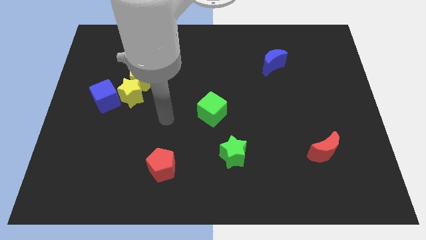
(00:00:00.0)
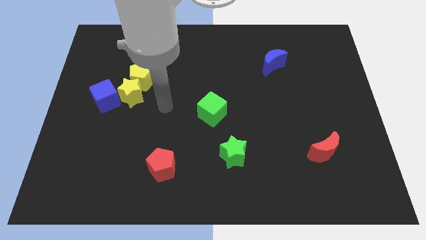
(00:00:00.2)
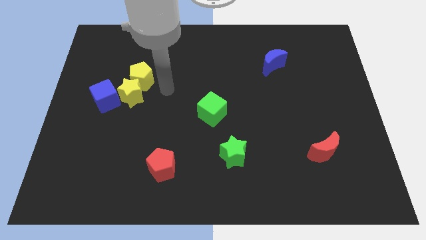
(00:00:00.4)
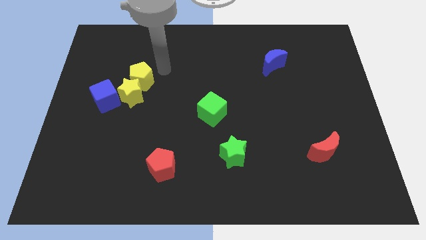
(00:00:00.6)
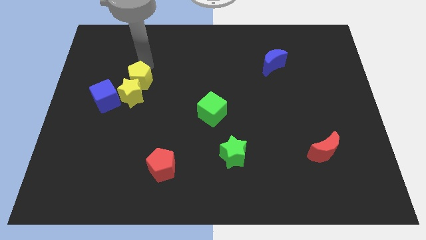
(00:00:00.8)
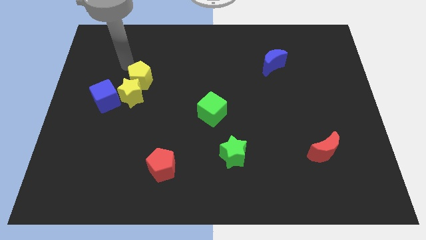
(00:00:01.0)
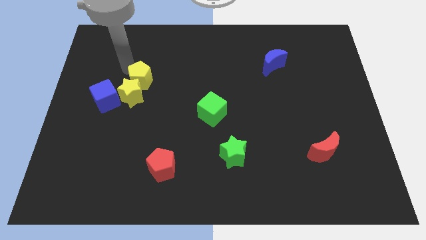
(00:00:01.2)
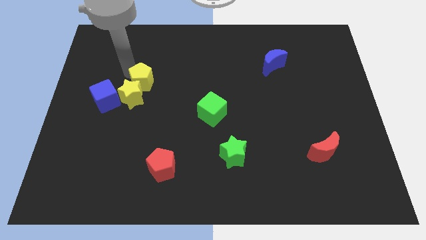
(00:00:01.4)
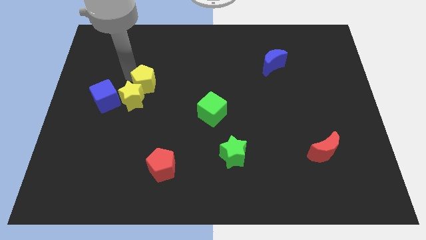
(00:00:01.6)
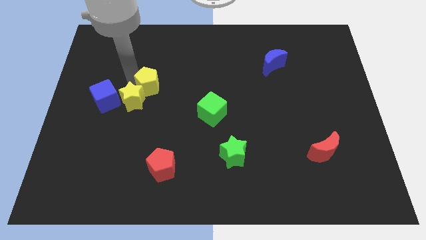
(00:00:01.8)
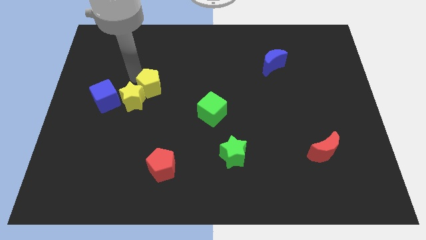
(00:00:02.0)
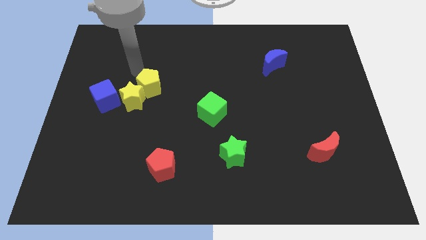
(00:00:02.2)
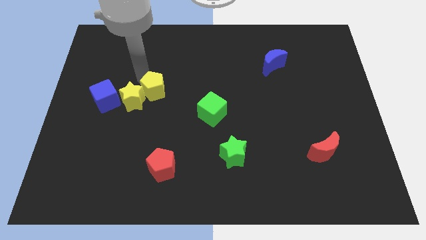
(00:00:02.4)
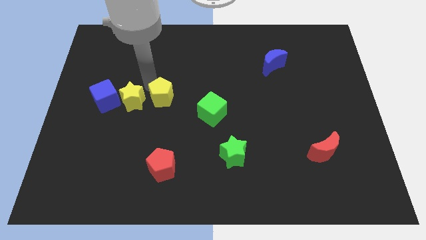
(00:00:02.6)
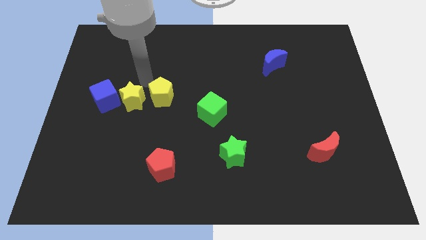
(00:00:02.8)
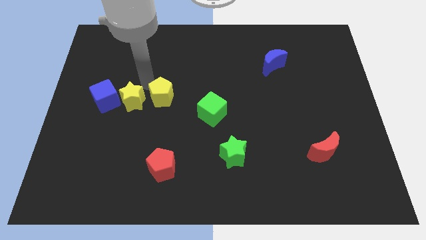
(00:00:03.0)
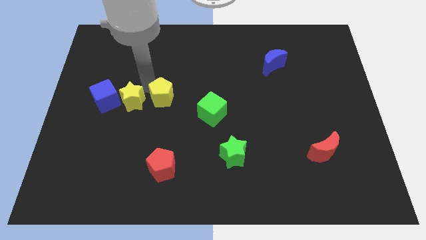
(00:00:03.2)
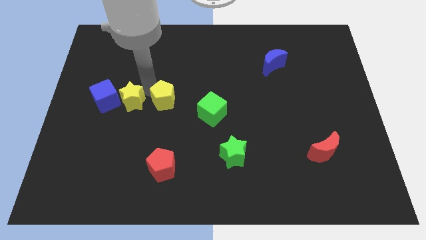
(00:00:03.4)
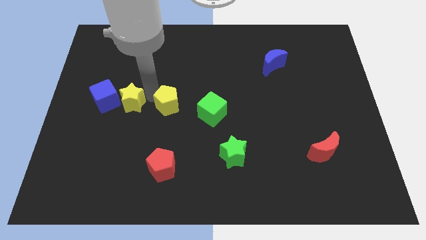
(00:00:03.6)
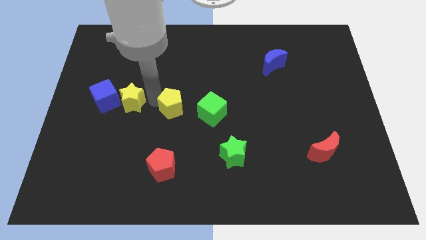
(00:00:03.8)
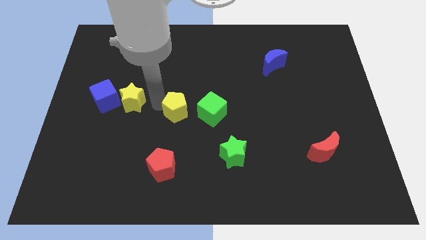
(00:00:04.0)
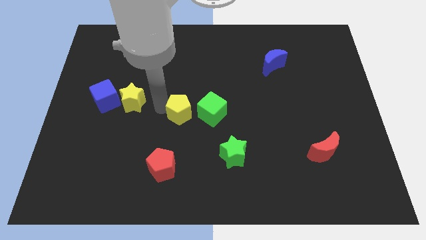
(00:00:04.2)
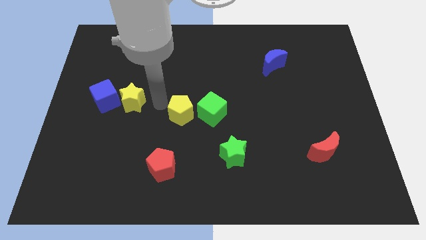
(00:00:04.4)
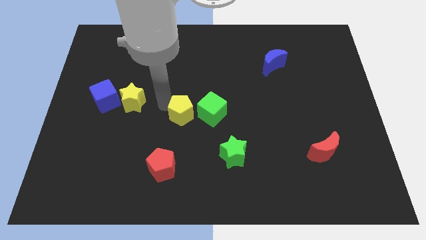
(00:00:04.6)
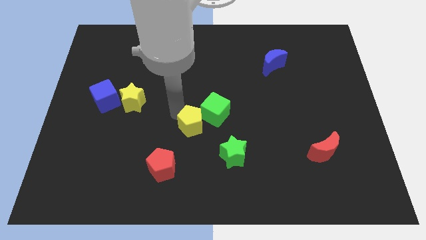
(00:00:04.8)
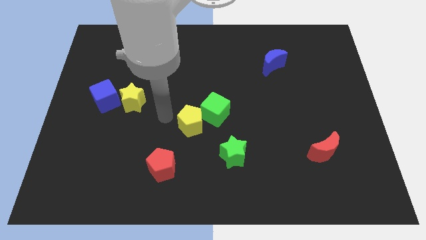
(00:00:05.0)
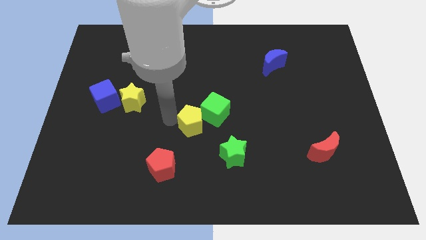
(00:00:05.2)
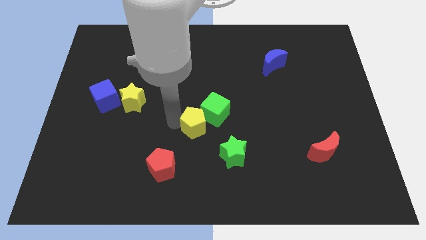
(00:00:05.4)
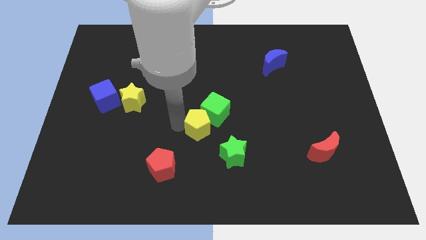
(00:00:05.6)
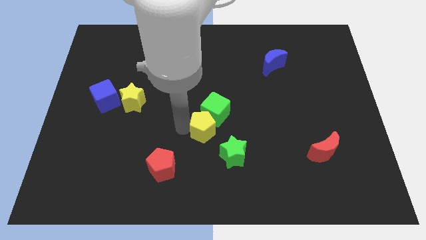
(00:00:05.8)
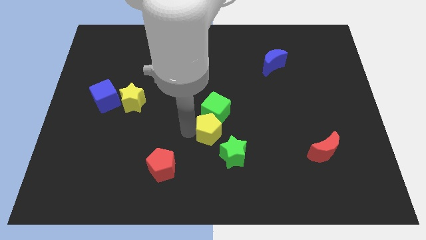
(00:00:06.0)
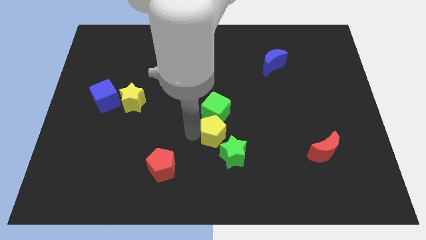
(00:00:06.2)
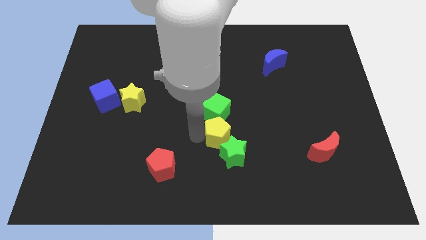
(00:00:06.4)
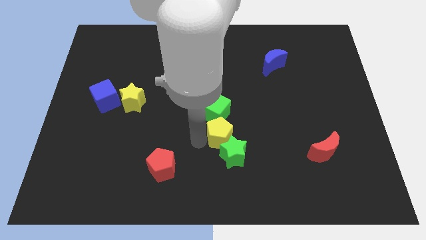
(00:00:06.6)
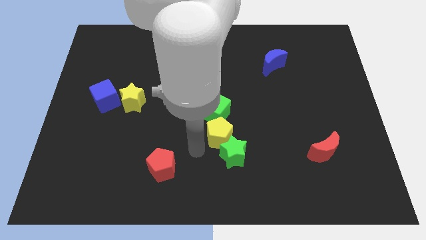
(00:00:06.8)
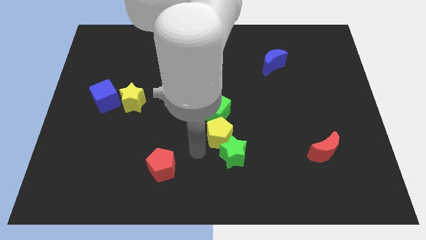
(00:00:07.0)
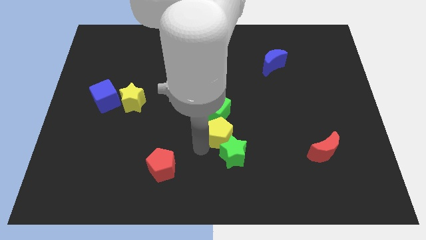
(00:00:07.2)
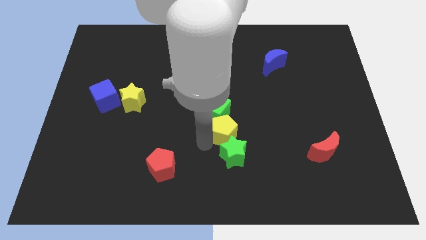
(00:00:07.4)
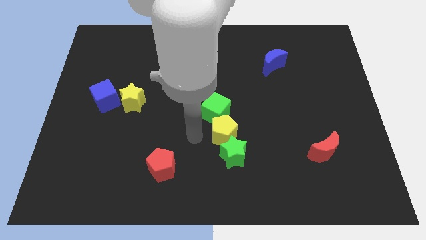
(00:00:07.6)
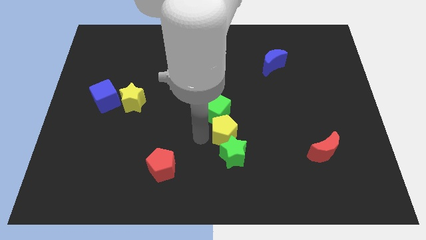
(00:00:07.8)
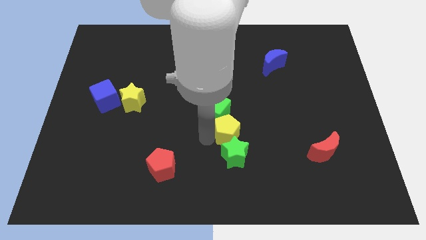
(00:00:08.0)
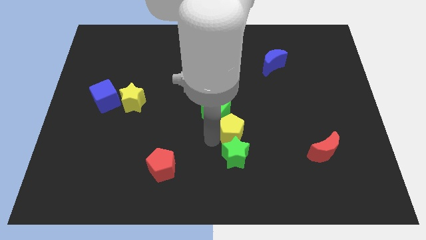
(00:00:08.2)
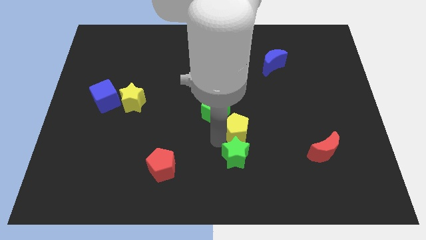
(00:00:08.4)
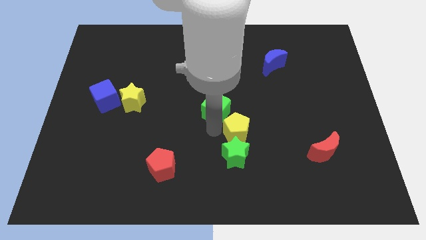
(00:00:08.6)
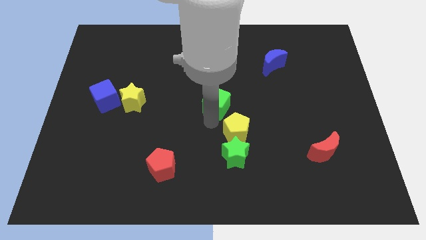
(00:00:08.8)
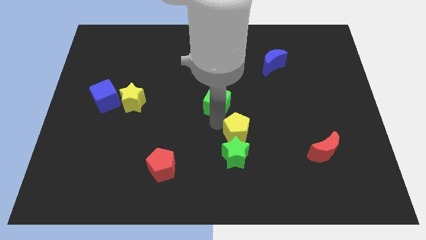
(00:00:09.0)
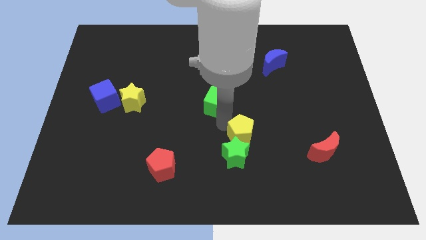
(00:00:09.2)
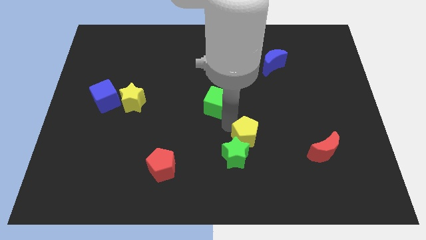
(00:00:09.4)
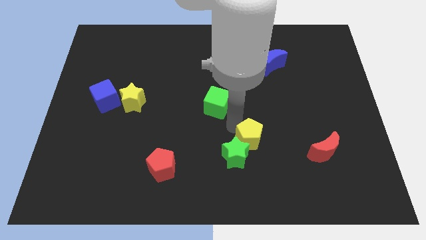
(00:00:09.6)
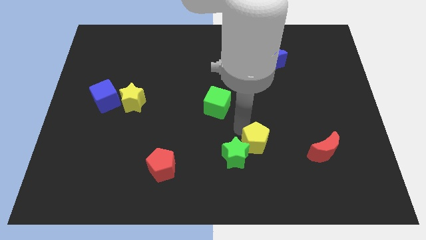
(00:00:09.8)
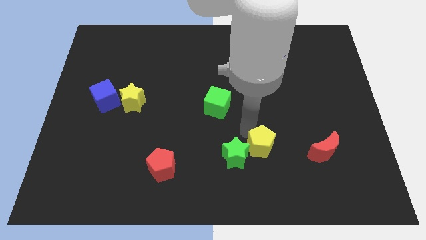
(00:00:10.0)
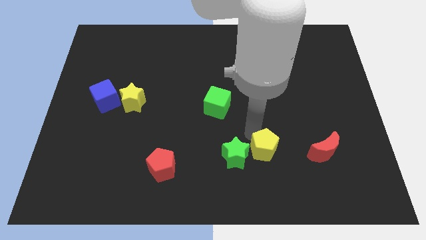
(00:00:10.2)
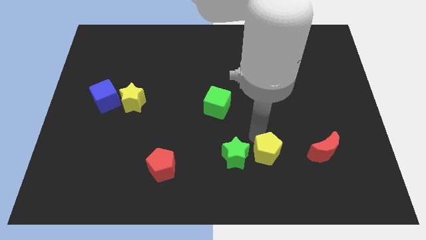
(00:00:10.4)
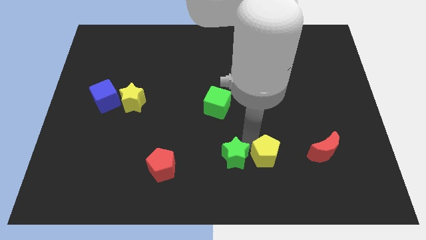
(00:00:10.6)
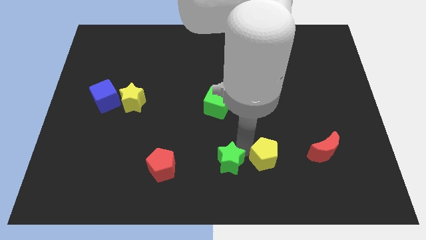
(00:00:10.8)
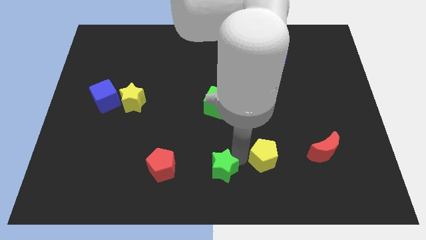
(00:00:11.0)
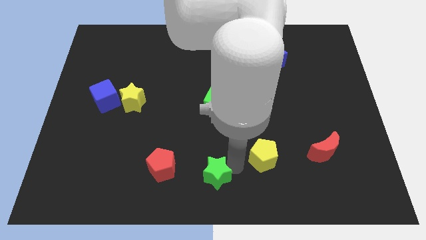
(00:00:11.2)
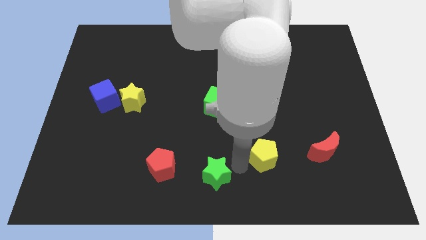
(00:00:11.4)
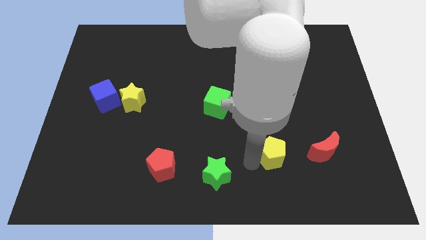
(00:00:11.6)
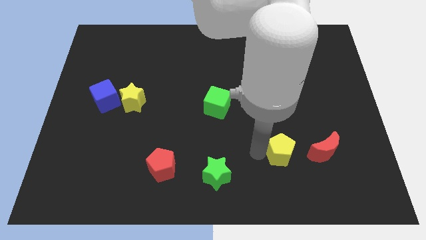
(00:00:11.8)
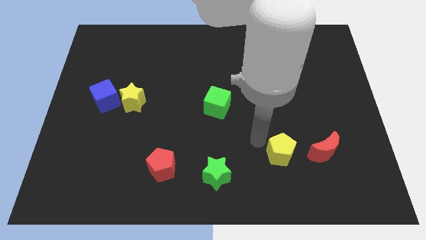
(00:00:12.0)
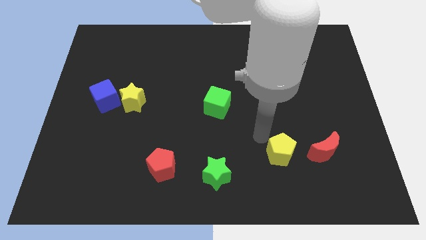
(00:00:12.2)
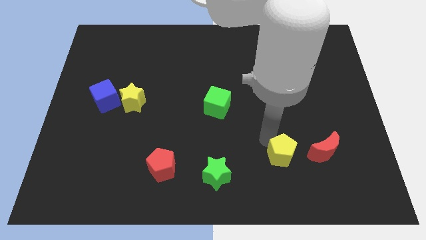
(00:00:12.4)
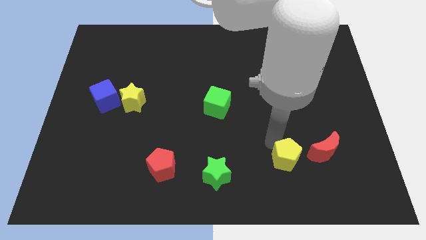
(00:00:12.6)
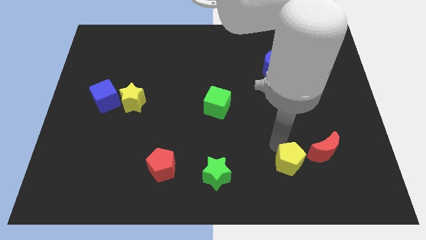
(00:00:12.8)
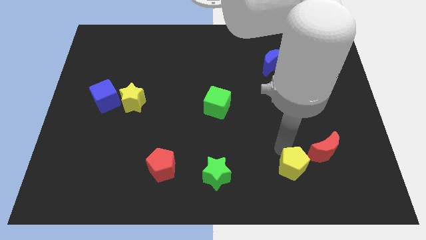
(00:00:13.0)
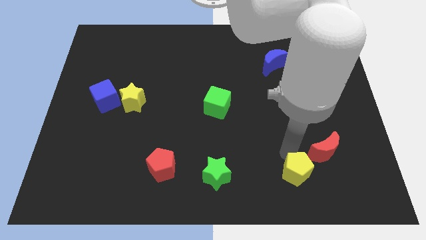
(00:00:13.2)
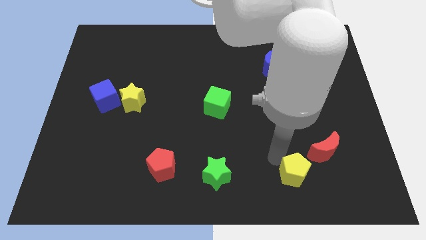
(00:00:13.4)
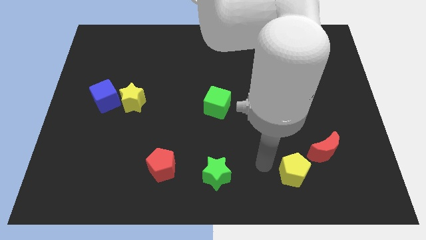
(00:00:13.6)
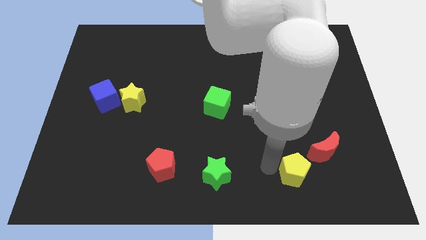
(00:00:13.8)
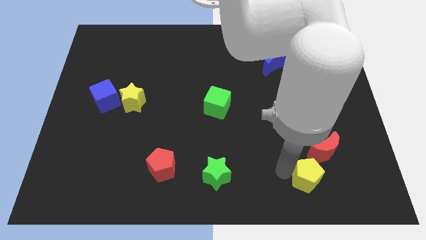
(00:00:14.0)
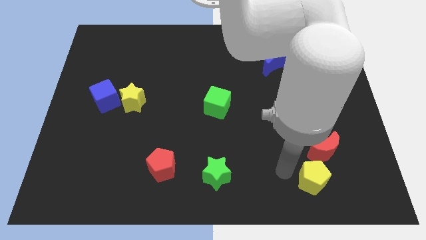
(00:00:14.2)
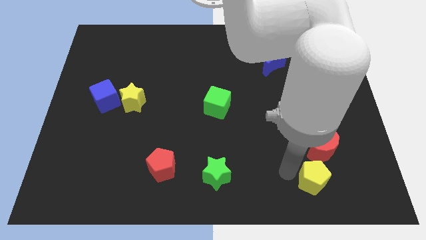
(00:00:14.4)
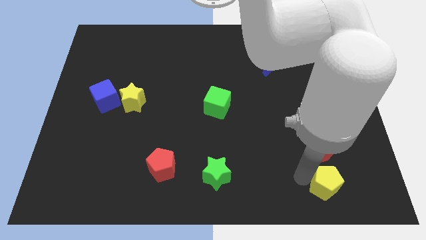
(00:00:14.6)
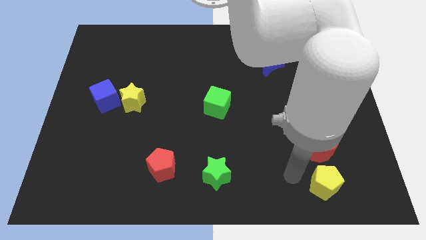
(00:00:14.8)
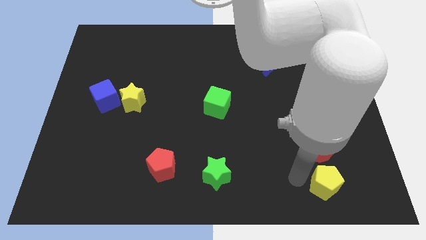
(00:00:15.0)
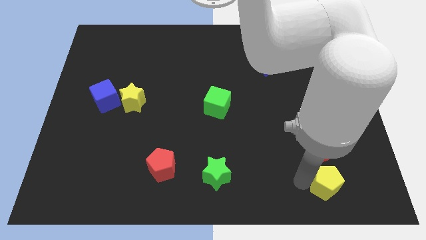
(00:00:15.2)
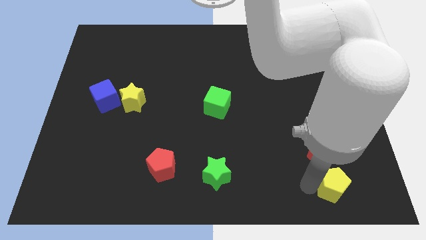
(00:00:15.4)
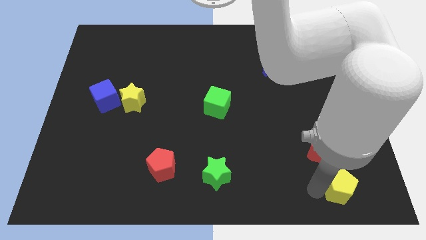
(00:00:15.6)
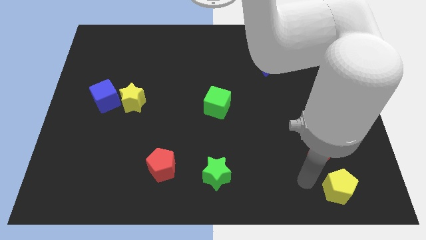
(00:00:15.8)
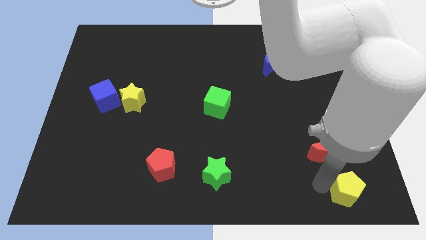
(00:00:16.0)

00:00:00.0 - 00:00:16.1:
put the yellow pentagon to the bottom right corner
